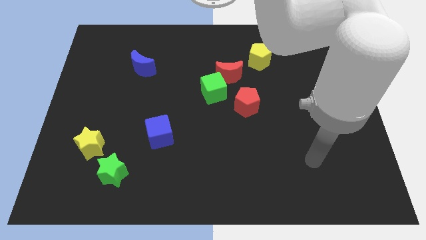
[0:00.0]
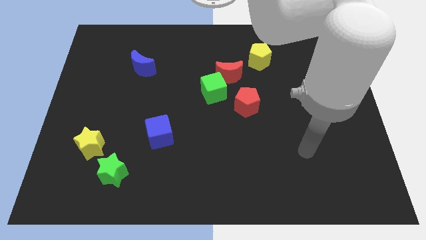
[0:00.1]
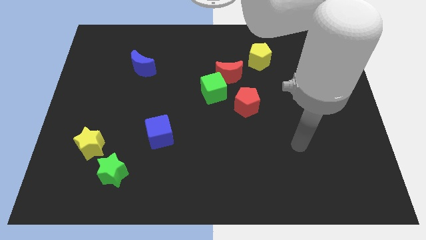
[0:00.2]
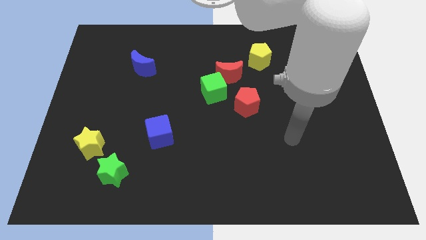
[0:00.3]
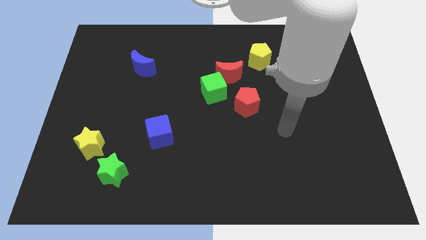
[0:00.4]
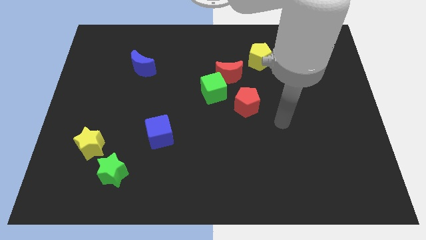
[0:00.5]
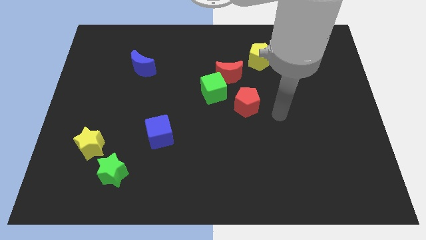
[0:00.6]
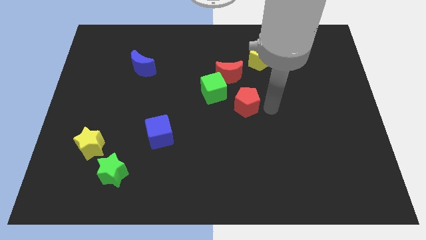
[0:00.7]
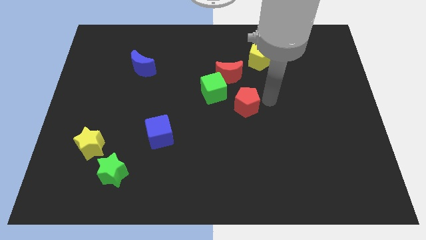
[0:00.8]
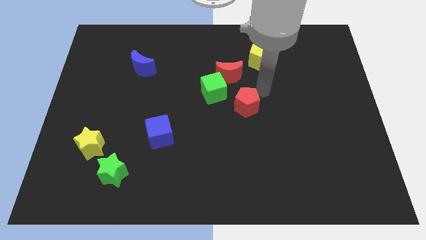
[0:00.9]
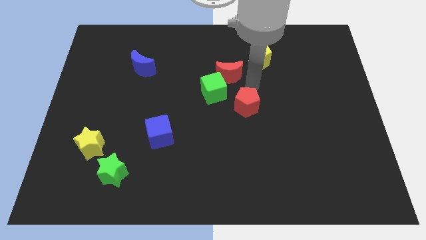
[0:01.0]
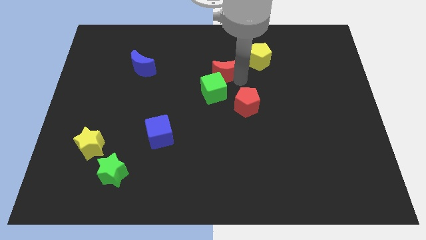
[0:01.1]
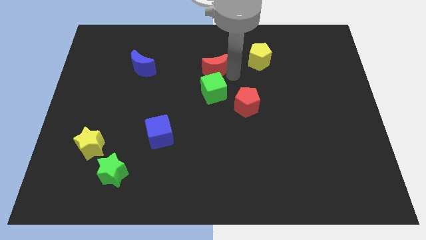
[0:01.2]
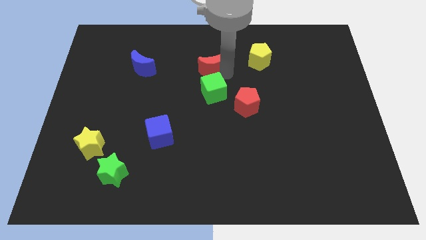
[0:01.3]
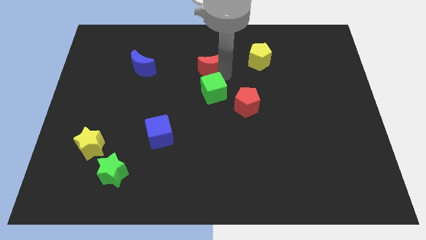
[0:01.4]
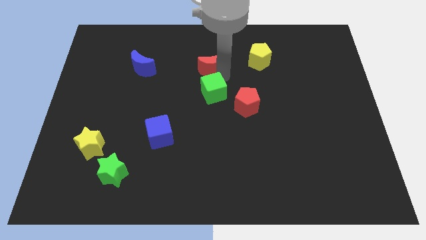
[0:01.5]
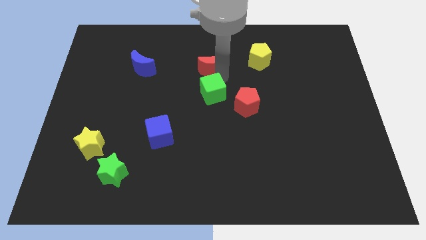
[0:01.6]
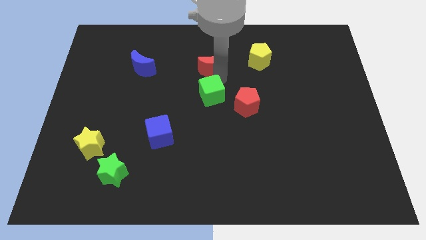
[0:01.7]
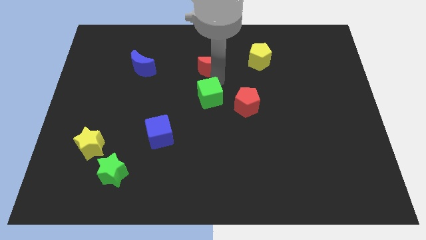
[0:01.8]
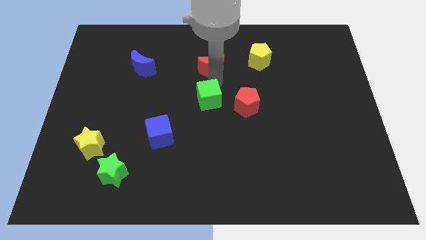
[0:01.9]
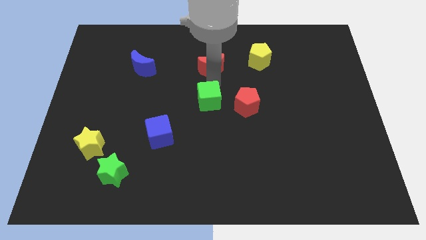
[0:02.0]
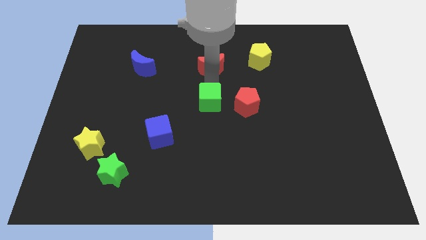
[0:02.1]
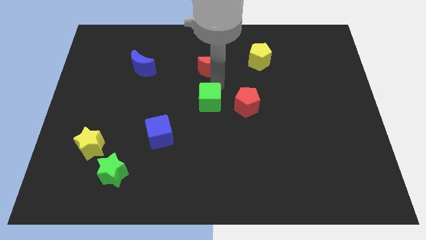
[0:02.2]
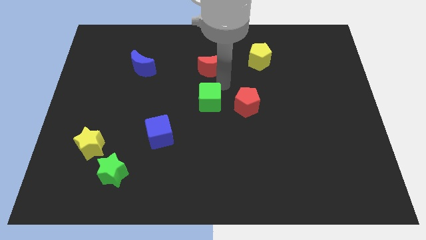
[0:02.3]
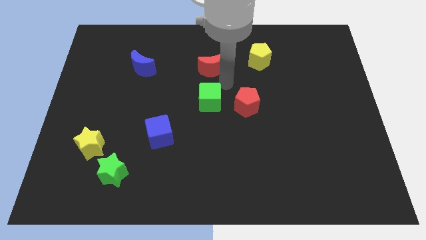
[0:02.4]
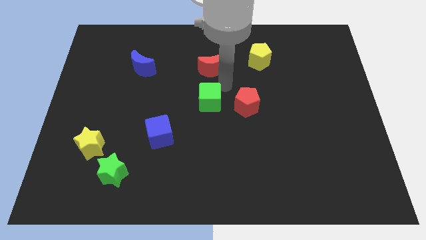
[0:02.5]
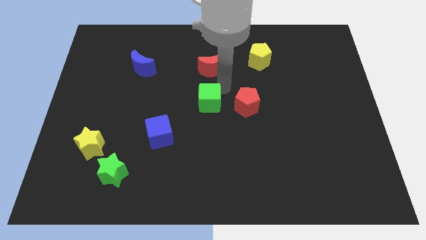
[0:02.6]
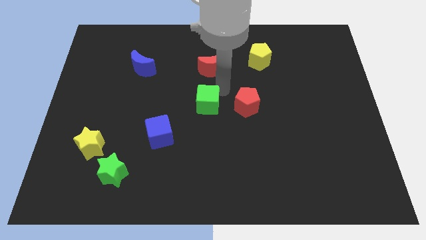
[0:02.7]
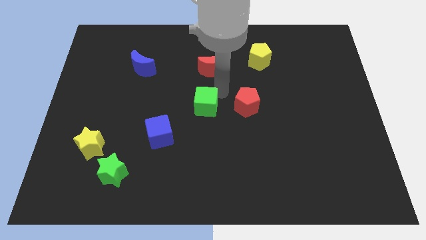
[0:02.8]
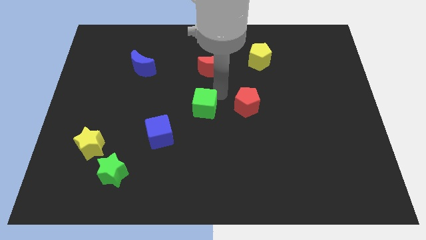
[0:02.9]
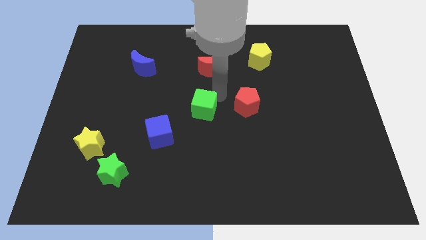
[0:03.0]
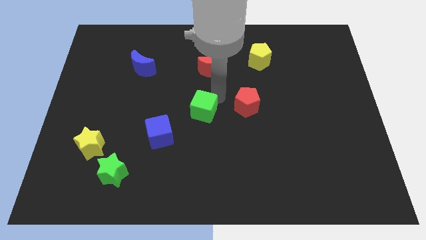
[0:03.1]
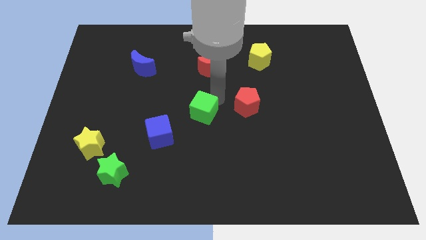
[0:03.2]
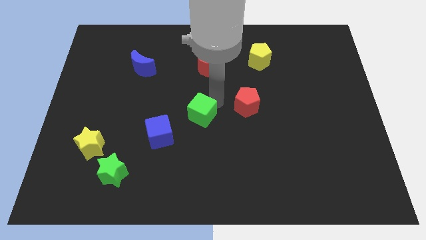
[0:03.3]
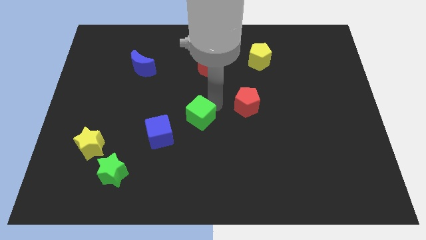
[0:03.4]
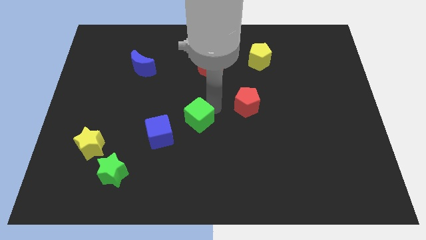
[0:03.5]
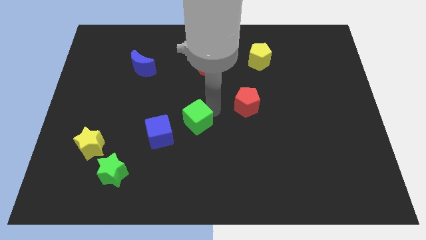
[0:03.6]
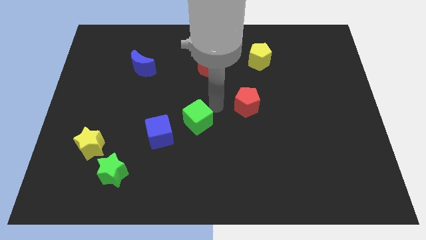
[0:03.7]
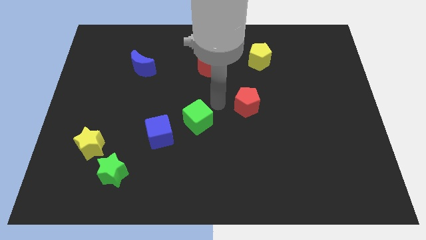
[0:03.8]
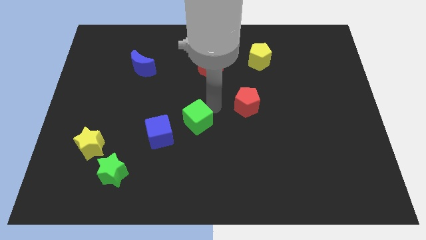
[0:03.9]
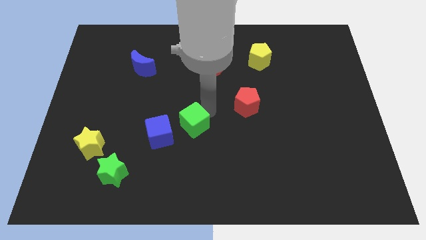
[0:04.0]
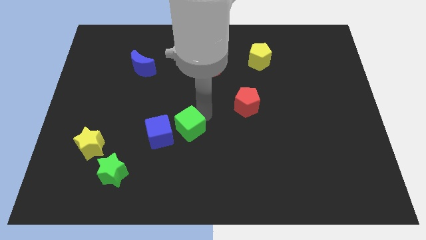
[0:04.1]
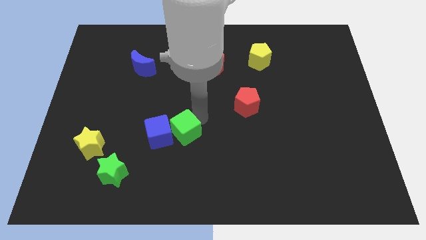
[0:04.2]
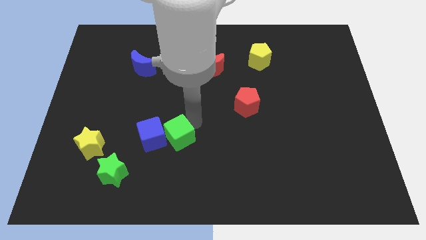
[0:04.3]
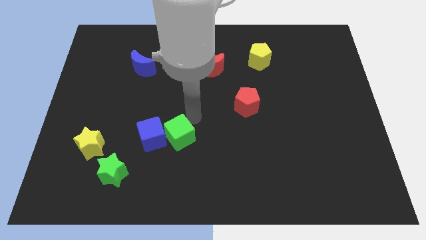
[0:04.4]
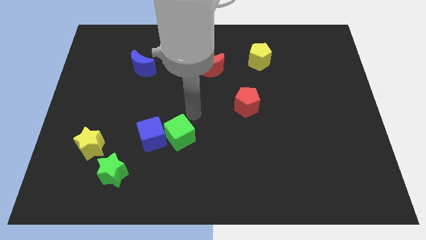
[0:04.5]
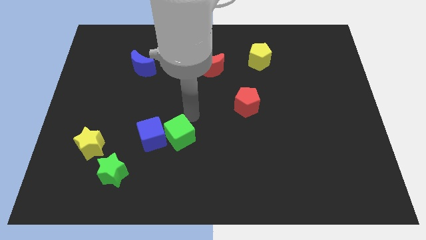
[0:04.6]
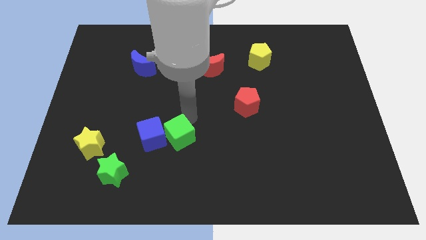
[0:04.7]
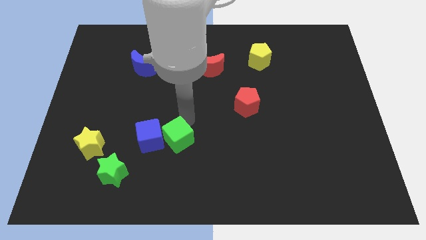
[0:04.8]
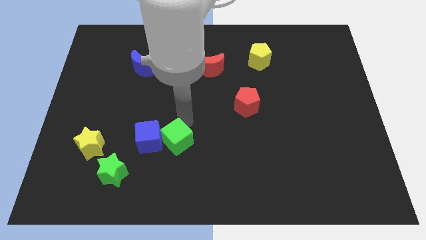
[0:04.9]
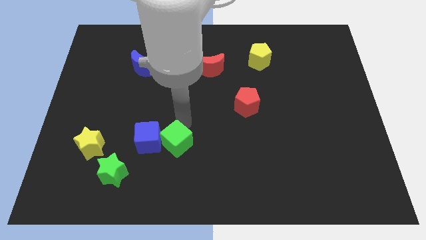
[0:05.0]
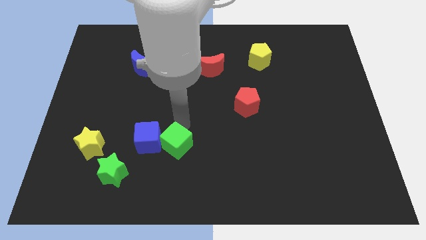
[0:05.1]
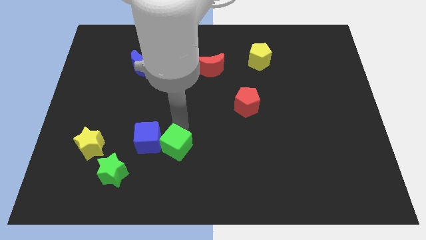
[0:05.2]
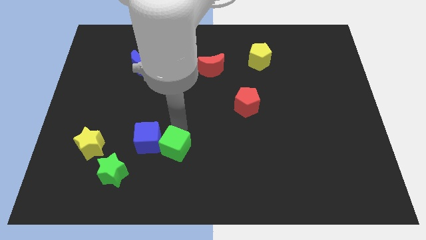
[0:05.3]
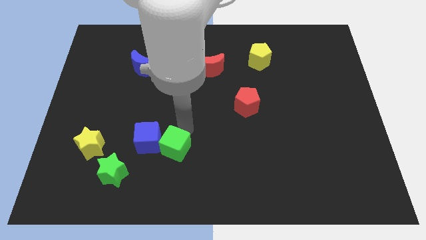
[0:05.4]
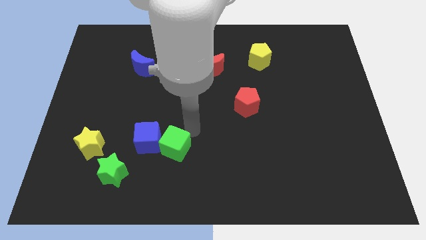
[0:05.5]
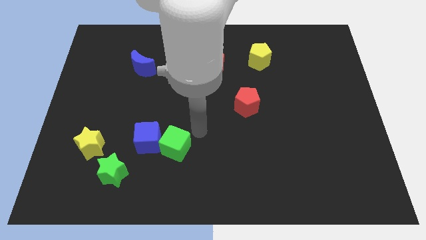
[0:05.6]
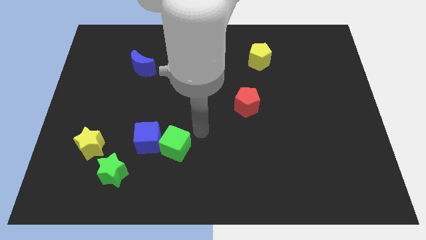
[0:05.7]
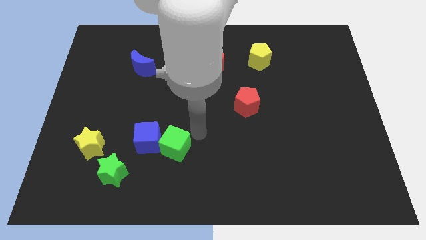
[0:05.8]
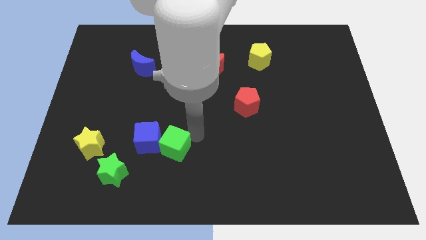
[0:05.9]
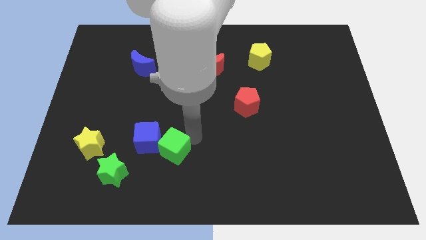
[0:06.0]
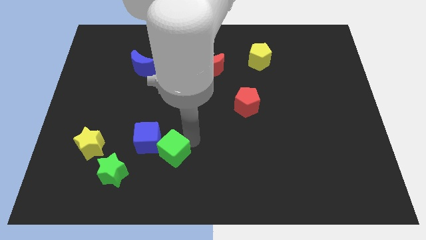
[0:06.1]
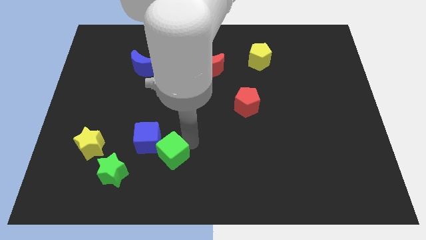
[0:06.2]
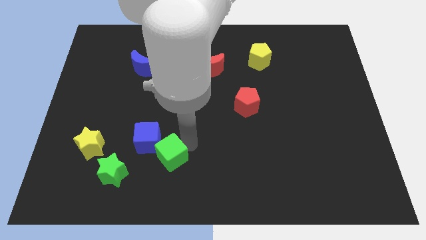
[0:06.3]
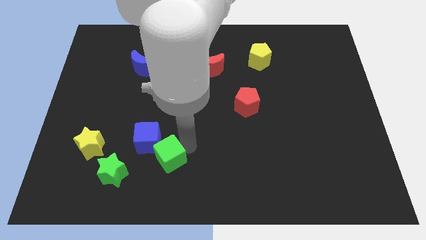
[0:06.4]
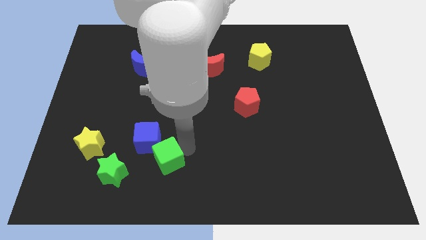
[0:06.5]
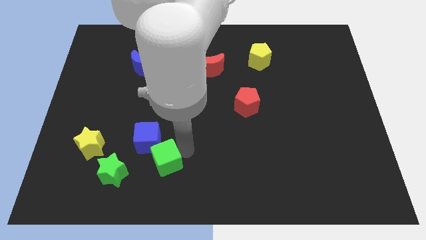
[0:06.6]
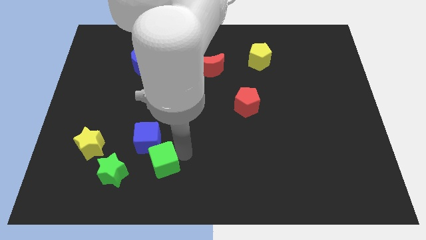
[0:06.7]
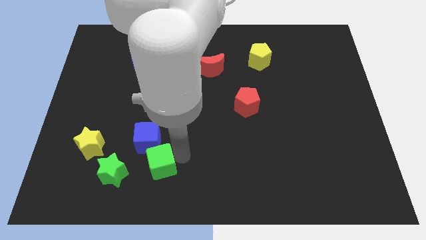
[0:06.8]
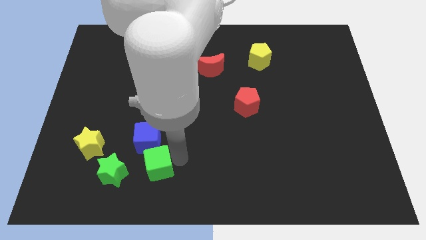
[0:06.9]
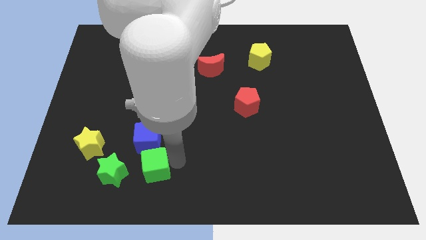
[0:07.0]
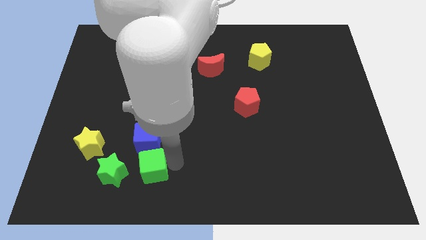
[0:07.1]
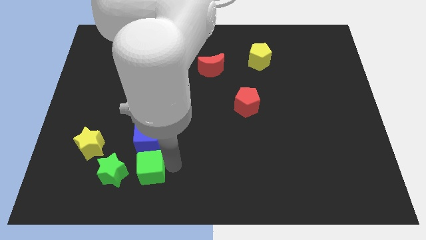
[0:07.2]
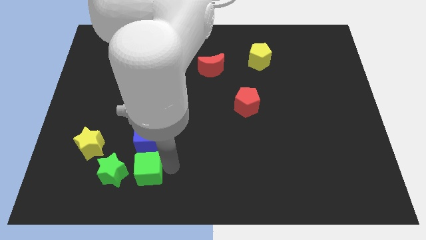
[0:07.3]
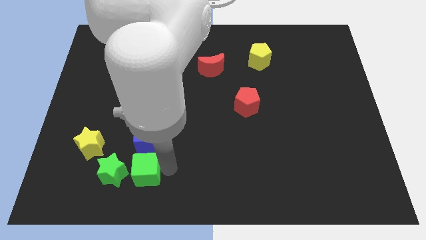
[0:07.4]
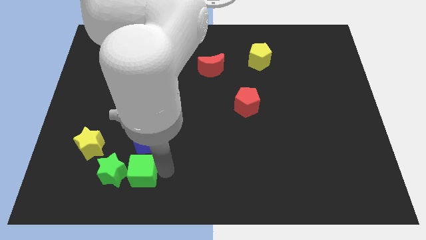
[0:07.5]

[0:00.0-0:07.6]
put the green cube next to the green star

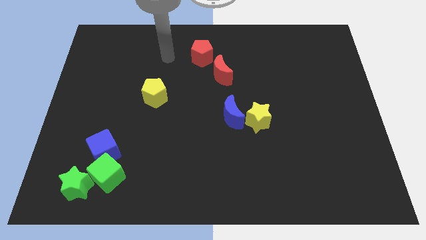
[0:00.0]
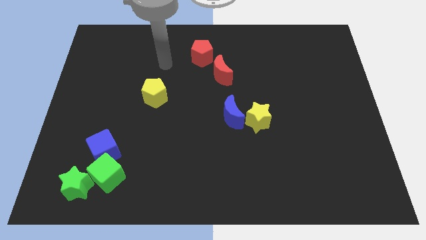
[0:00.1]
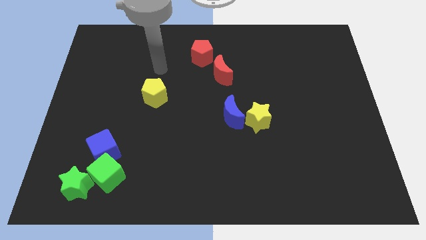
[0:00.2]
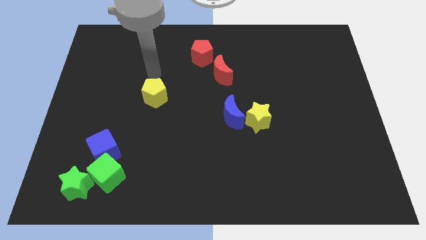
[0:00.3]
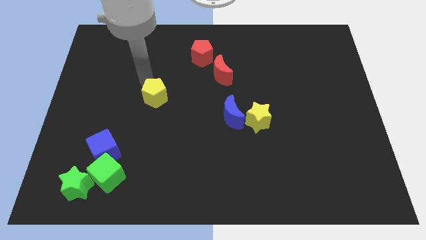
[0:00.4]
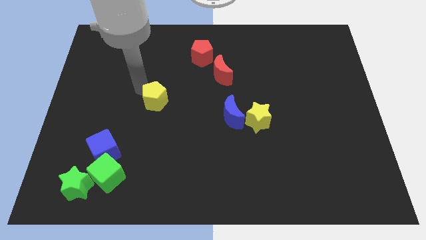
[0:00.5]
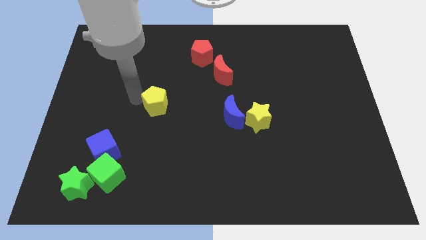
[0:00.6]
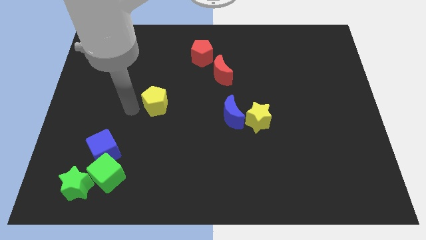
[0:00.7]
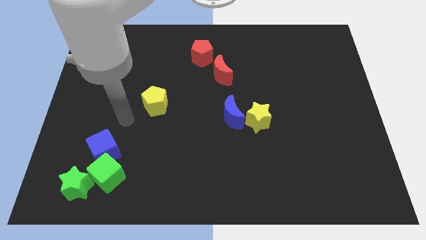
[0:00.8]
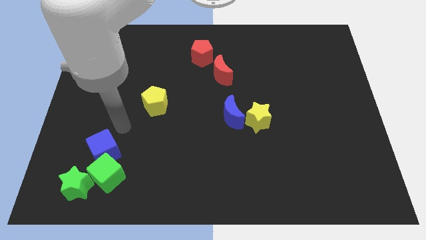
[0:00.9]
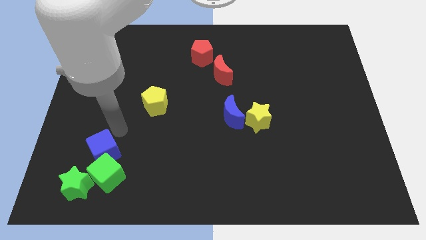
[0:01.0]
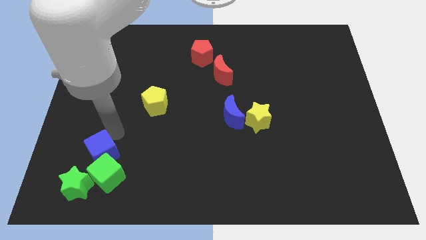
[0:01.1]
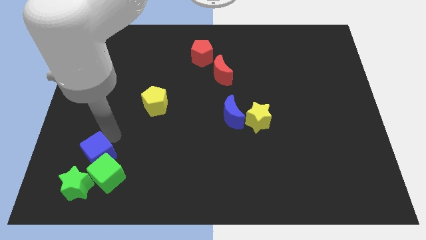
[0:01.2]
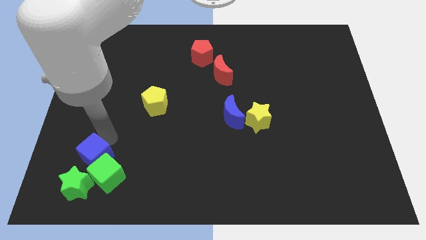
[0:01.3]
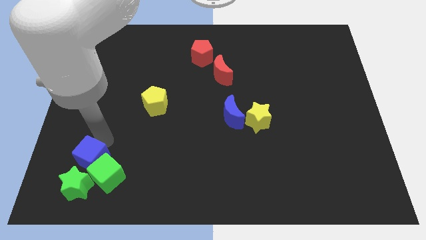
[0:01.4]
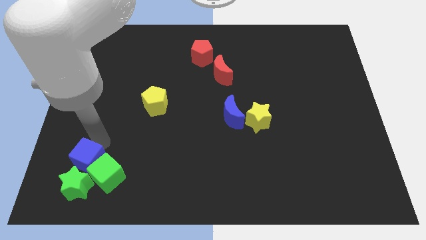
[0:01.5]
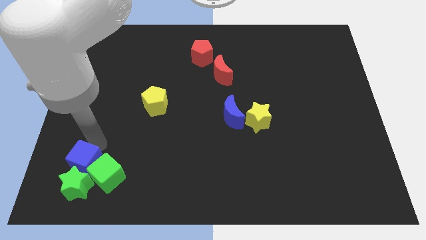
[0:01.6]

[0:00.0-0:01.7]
push the blue cube close to the green star
